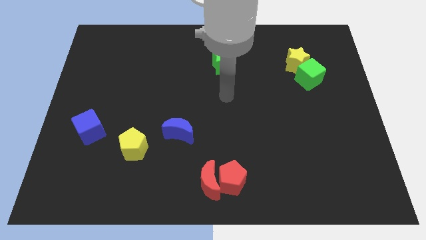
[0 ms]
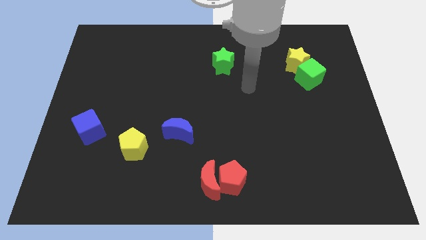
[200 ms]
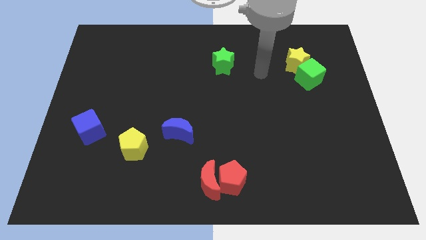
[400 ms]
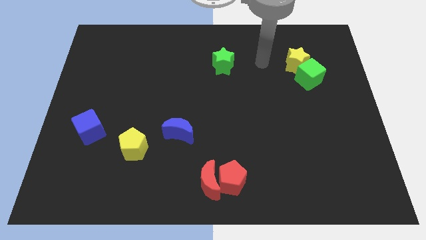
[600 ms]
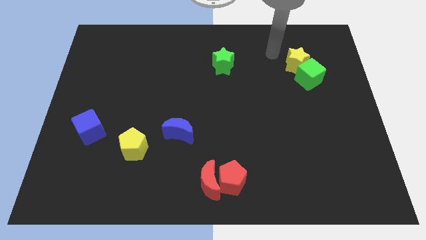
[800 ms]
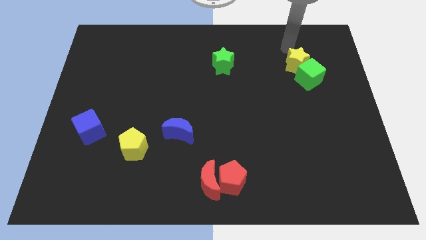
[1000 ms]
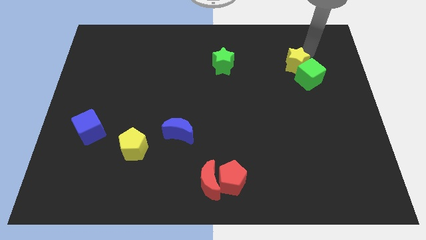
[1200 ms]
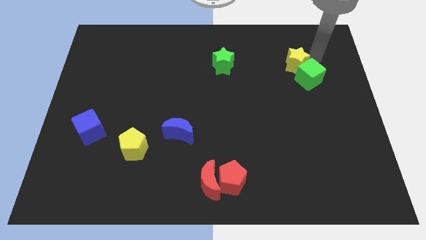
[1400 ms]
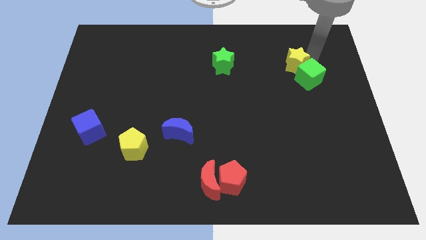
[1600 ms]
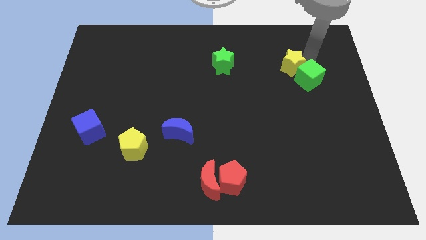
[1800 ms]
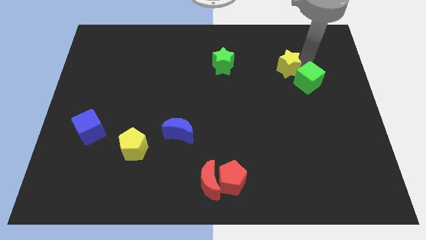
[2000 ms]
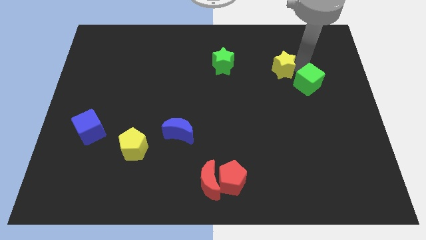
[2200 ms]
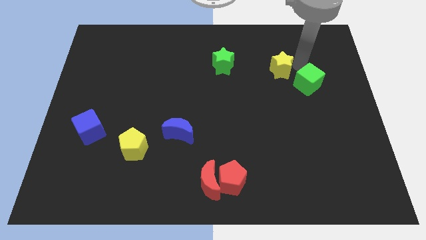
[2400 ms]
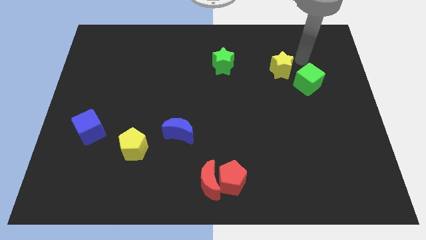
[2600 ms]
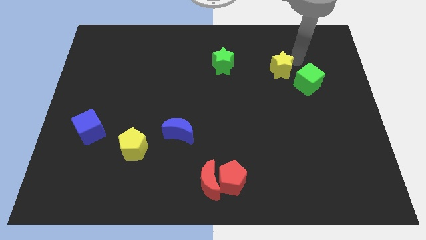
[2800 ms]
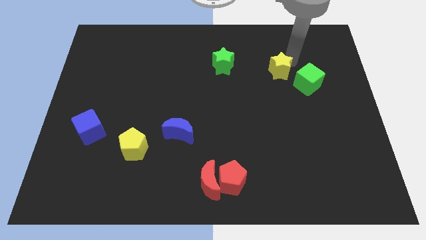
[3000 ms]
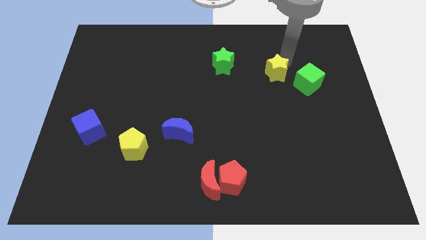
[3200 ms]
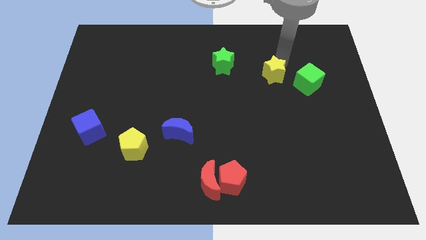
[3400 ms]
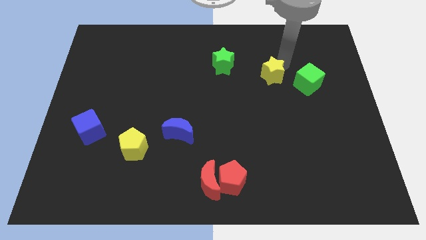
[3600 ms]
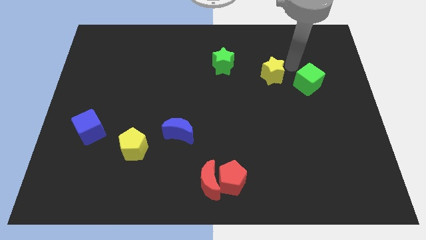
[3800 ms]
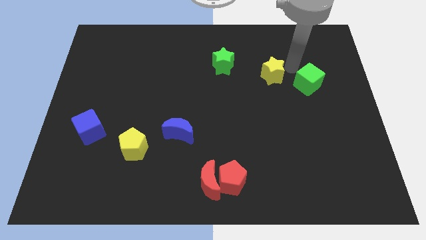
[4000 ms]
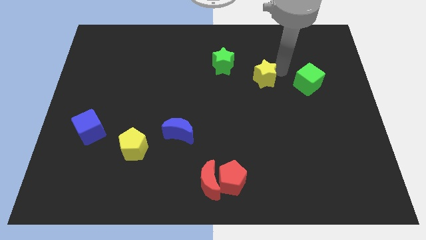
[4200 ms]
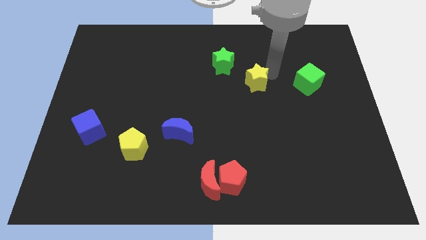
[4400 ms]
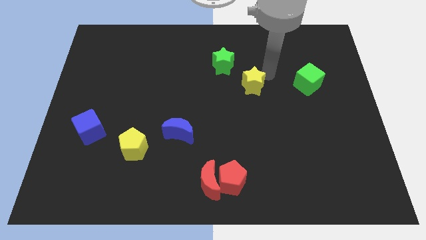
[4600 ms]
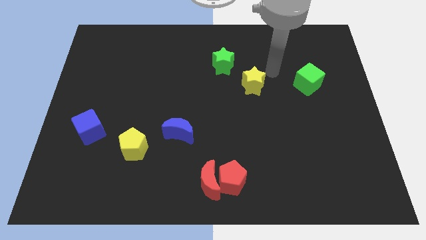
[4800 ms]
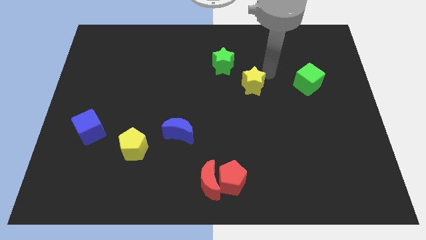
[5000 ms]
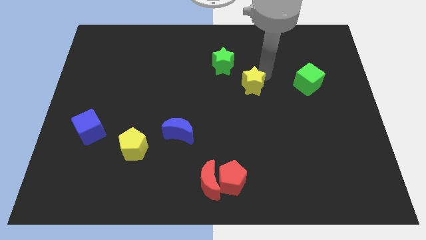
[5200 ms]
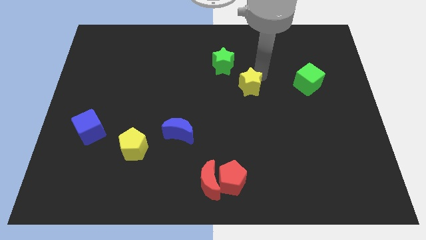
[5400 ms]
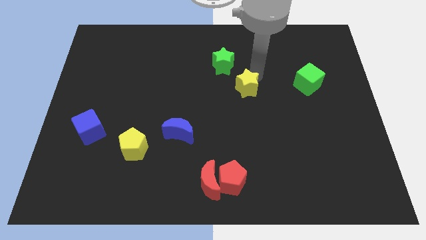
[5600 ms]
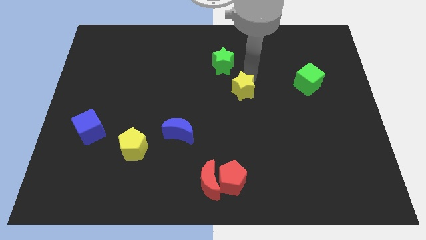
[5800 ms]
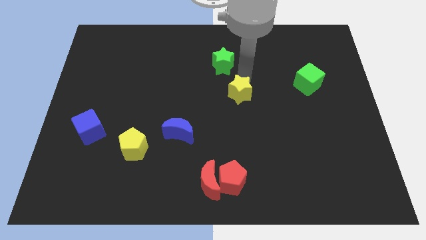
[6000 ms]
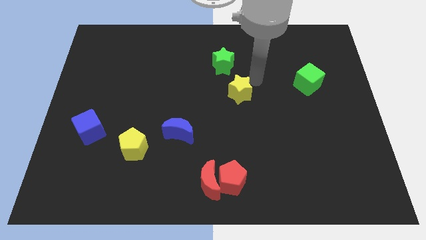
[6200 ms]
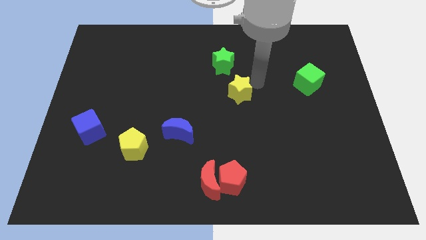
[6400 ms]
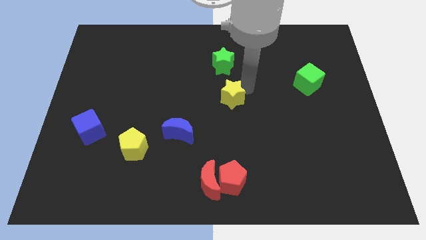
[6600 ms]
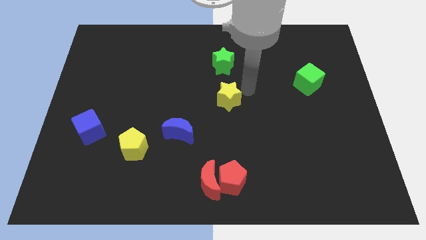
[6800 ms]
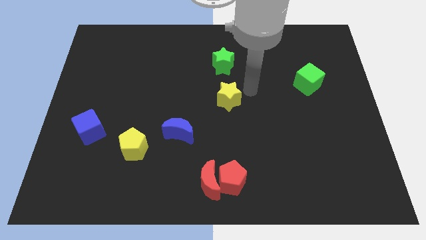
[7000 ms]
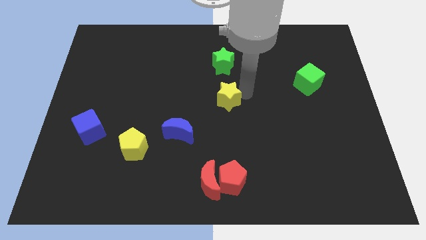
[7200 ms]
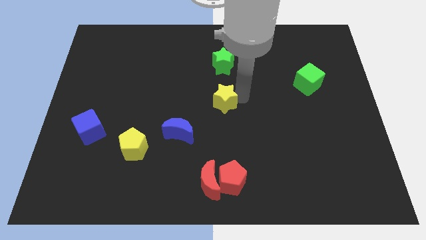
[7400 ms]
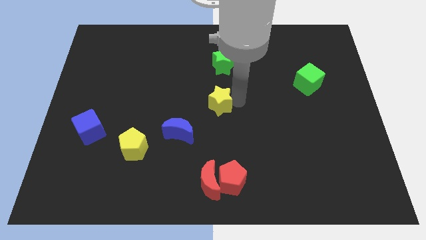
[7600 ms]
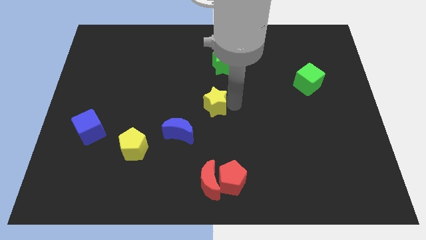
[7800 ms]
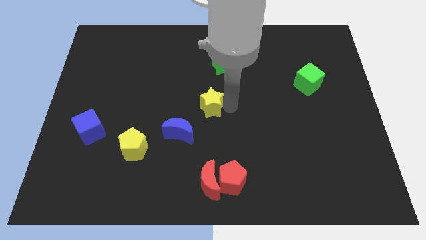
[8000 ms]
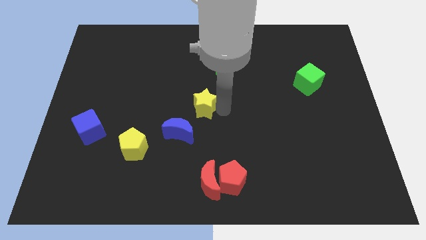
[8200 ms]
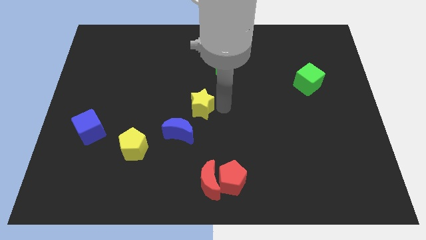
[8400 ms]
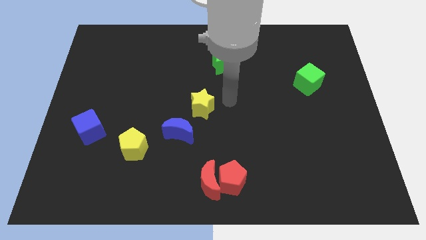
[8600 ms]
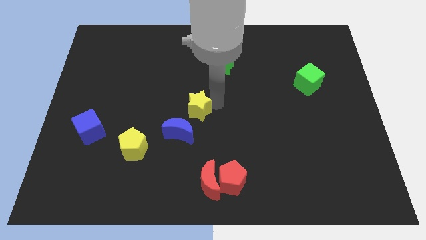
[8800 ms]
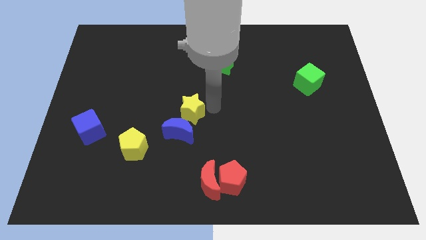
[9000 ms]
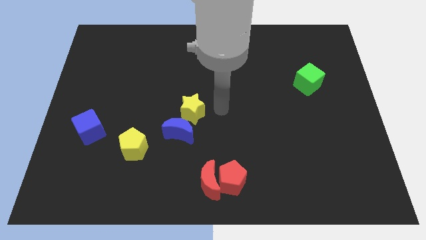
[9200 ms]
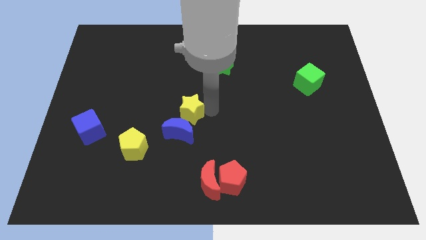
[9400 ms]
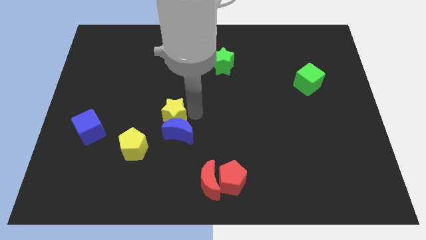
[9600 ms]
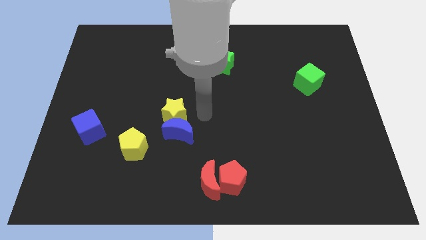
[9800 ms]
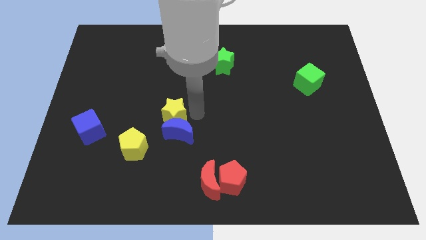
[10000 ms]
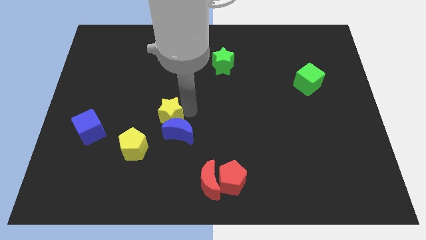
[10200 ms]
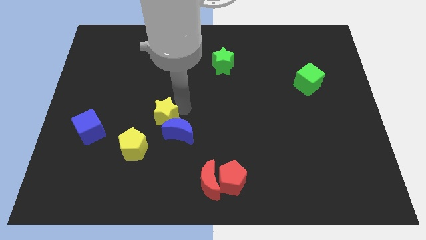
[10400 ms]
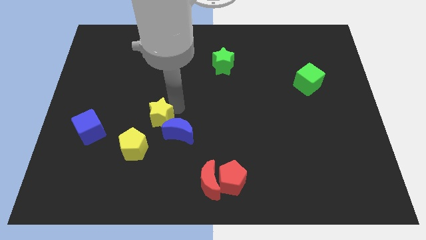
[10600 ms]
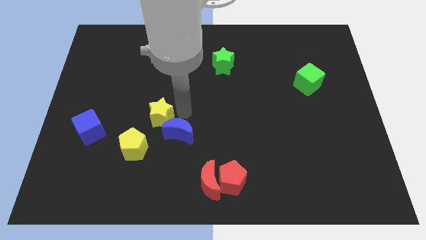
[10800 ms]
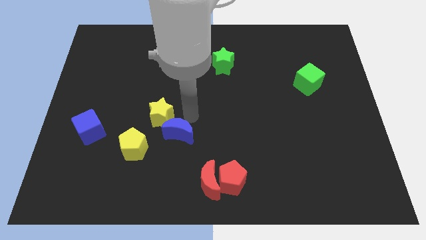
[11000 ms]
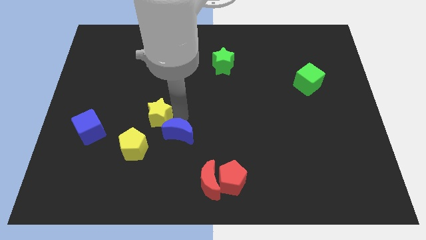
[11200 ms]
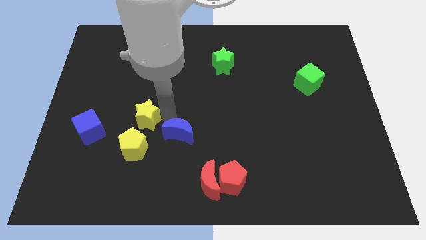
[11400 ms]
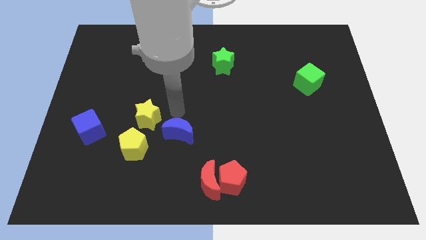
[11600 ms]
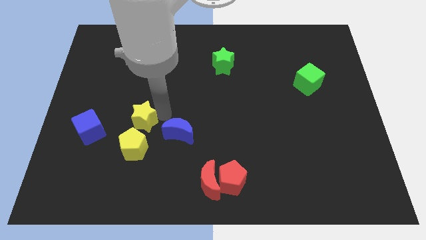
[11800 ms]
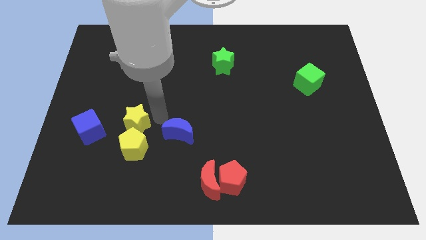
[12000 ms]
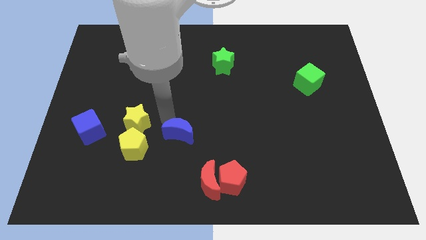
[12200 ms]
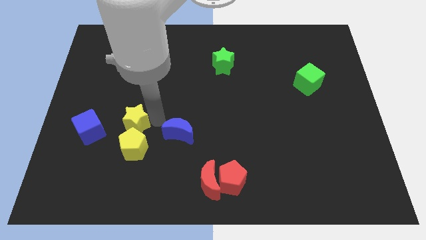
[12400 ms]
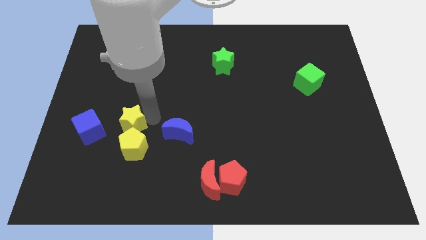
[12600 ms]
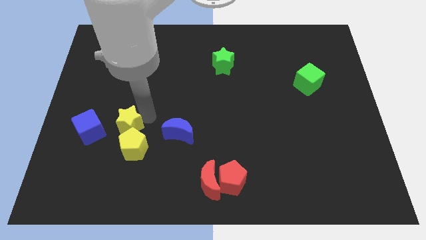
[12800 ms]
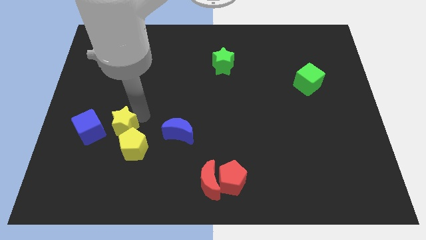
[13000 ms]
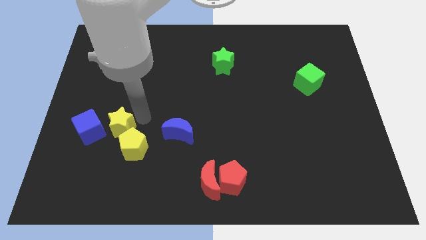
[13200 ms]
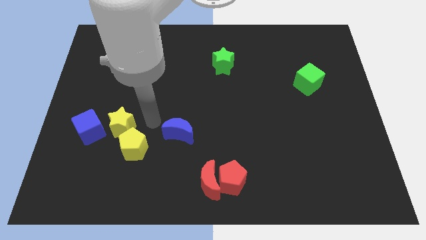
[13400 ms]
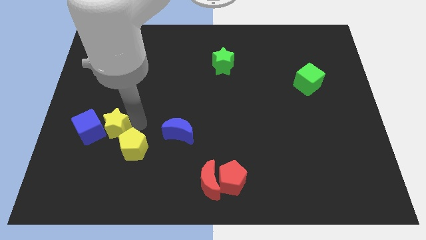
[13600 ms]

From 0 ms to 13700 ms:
slide the yellow star next to the blue cube

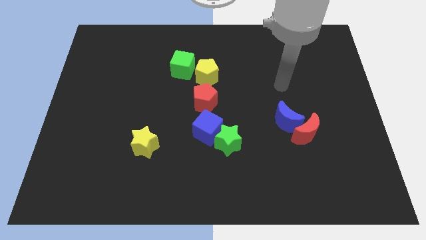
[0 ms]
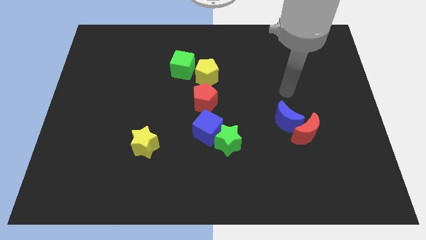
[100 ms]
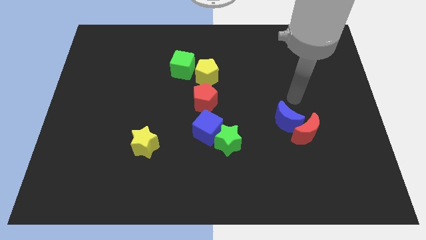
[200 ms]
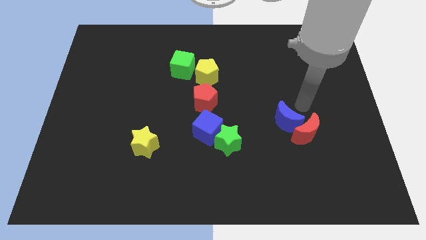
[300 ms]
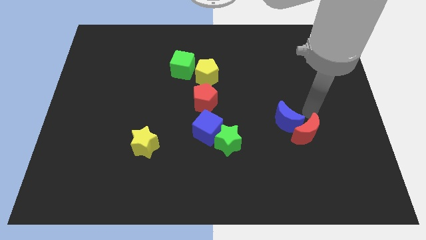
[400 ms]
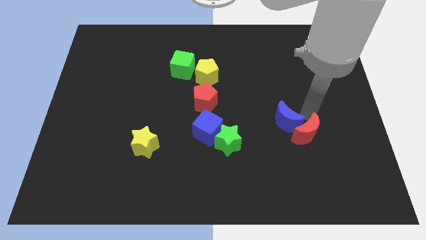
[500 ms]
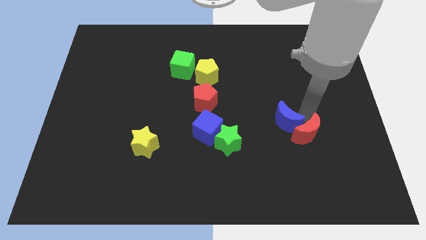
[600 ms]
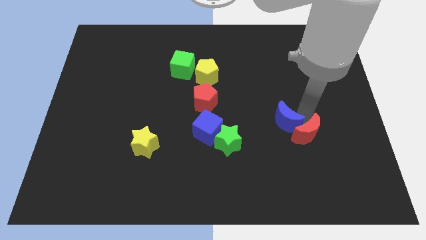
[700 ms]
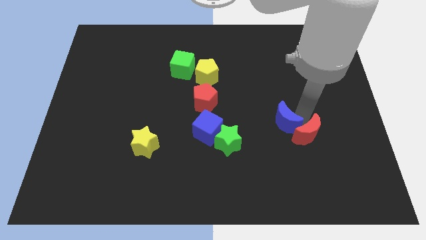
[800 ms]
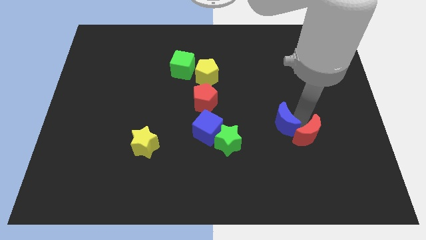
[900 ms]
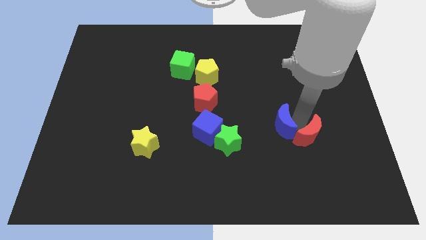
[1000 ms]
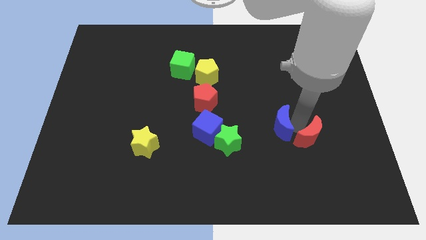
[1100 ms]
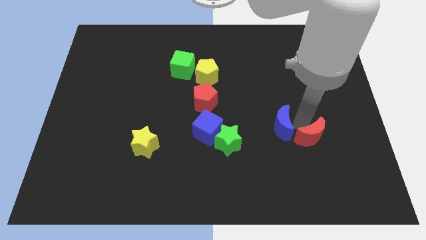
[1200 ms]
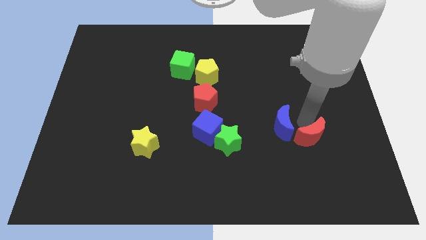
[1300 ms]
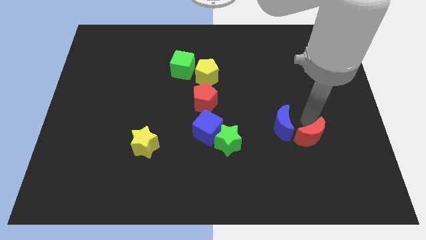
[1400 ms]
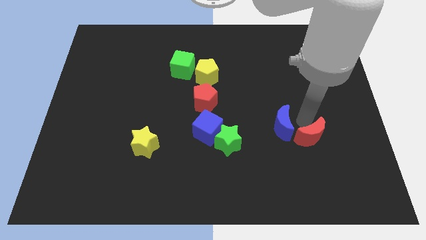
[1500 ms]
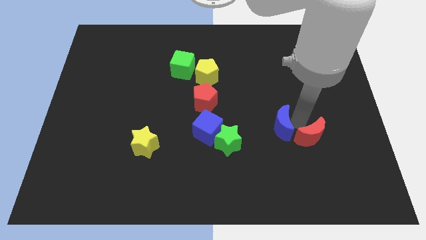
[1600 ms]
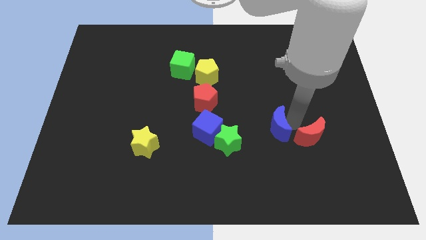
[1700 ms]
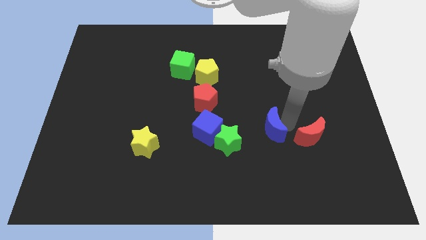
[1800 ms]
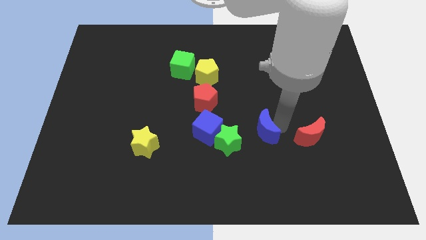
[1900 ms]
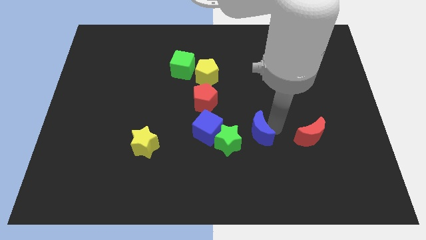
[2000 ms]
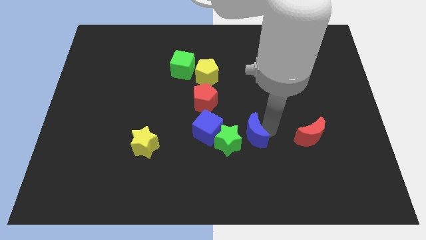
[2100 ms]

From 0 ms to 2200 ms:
put the blue moon close to the green star
